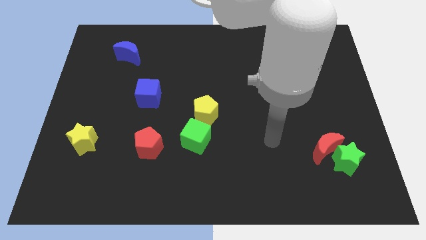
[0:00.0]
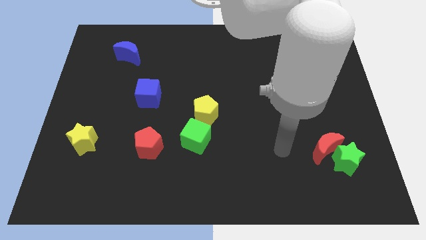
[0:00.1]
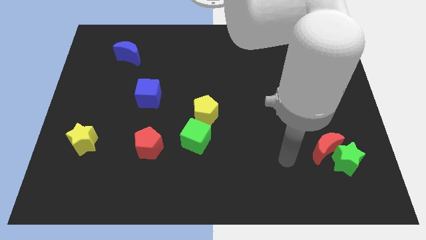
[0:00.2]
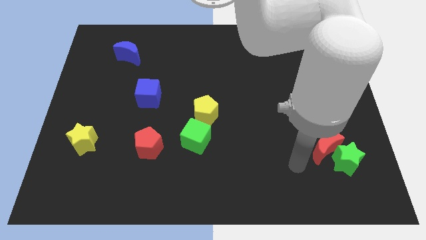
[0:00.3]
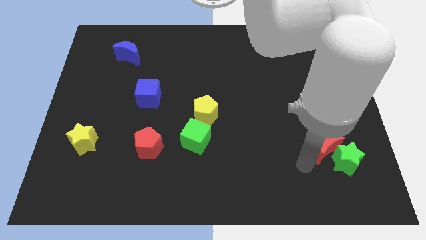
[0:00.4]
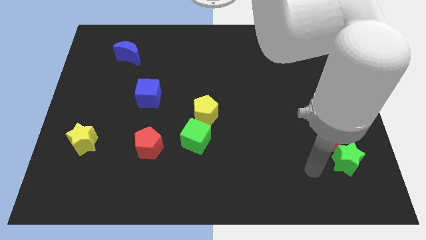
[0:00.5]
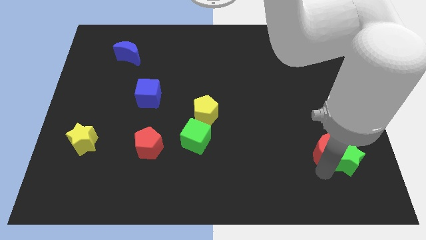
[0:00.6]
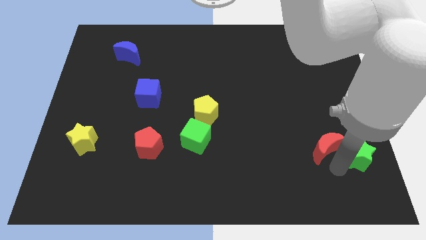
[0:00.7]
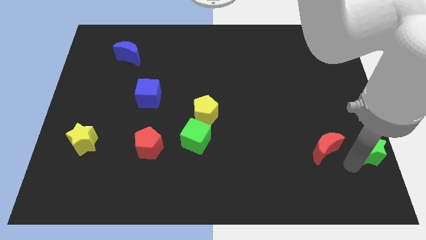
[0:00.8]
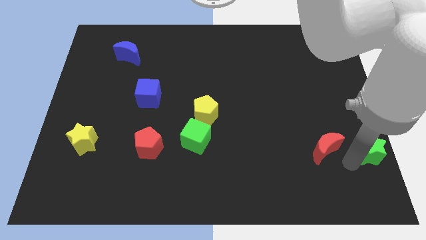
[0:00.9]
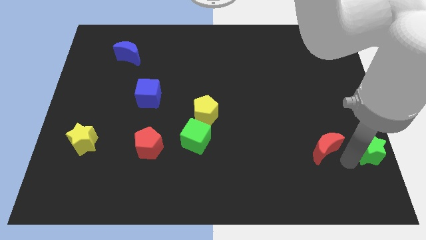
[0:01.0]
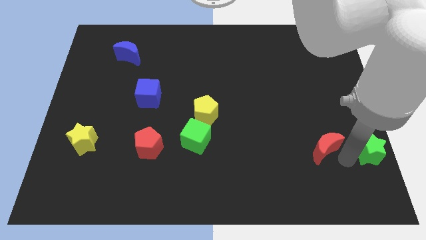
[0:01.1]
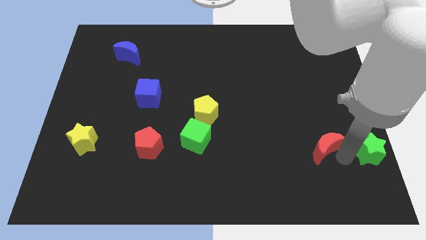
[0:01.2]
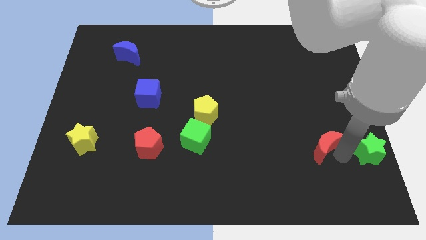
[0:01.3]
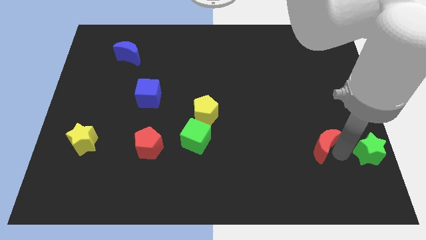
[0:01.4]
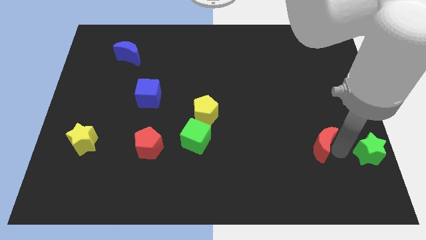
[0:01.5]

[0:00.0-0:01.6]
separate the red moon from the green star

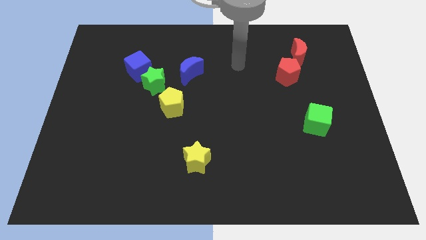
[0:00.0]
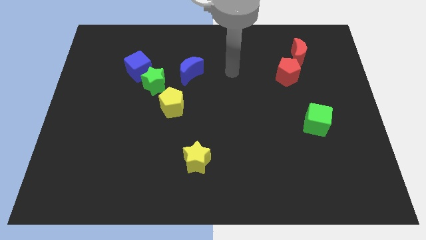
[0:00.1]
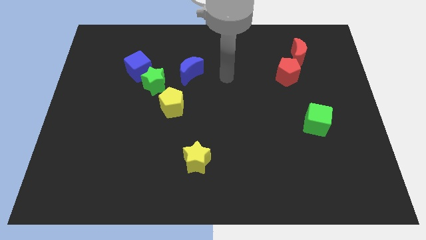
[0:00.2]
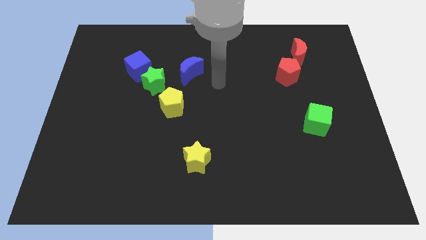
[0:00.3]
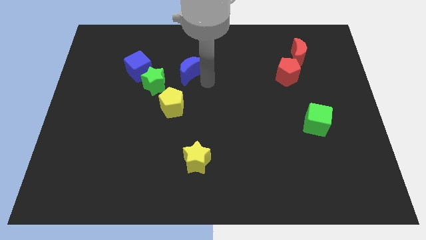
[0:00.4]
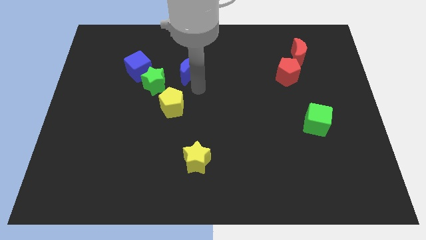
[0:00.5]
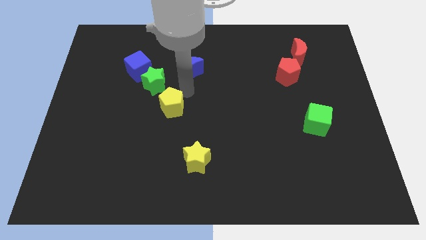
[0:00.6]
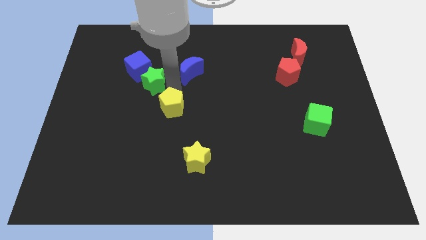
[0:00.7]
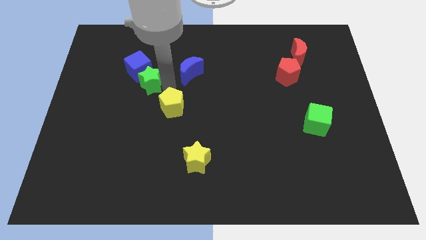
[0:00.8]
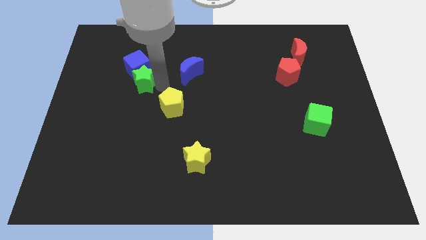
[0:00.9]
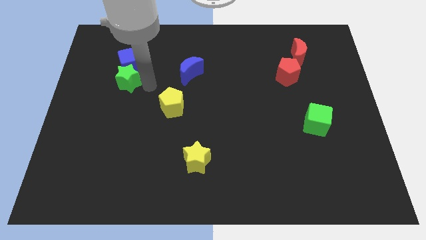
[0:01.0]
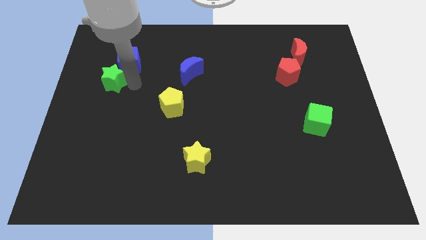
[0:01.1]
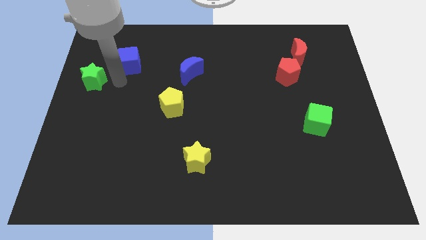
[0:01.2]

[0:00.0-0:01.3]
separate the blue cube from the green star

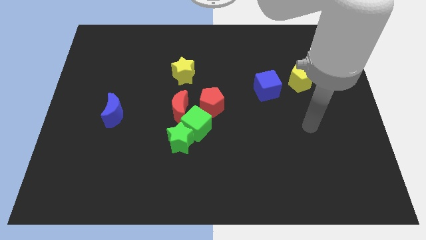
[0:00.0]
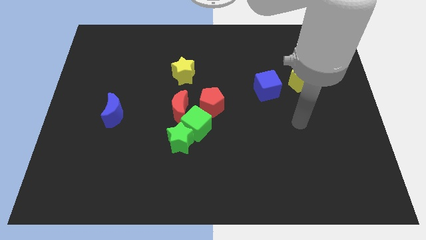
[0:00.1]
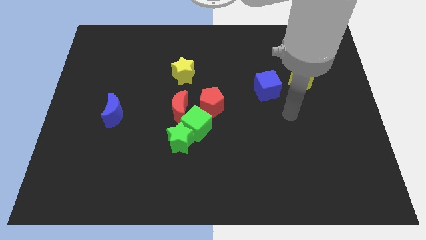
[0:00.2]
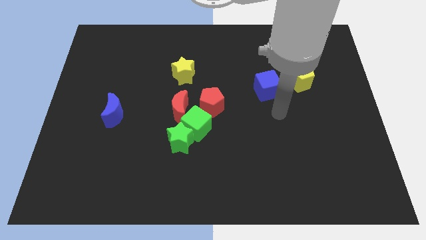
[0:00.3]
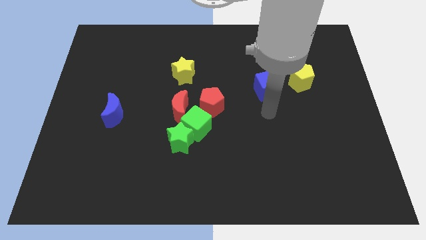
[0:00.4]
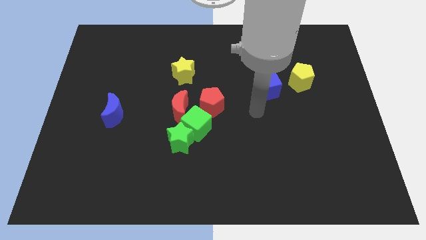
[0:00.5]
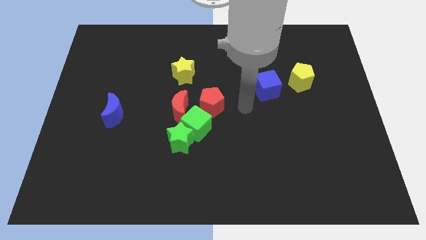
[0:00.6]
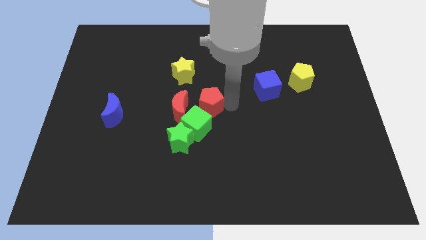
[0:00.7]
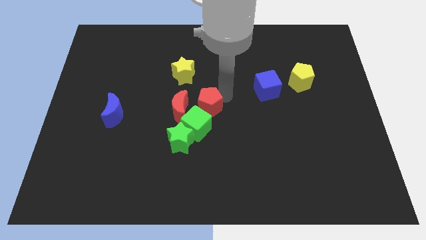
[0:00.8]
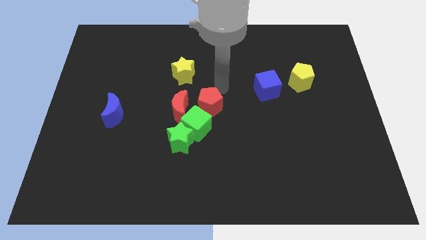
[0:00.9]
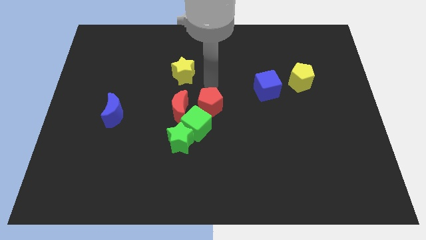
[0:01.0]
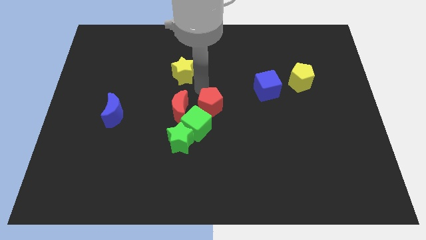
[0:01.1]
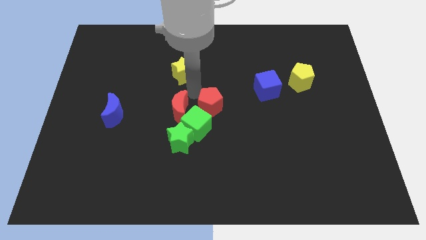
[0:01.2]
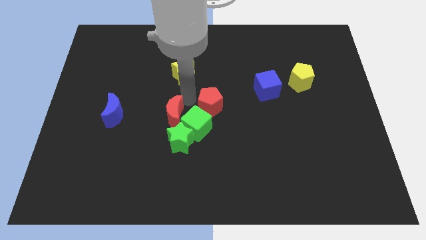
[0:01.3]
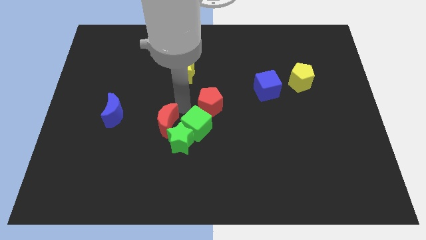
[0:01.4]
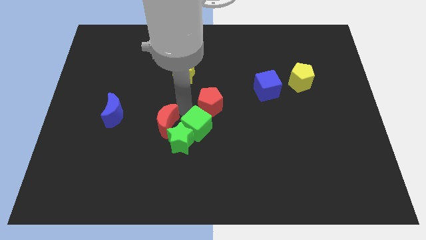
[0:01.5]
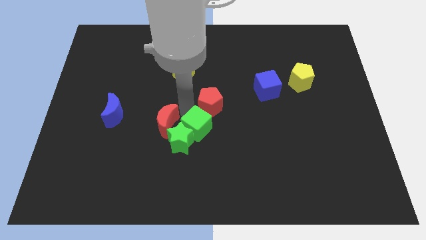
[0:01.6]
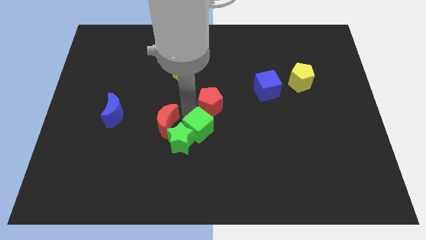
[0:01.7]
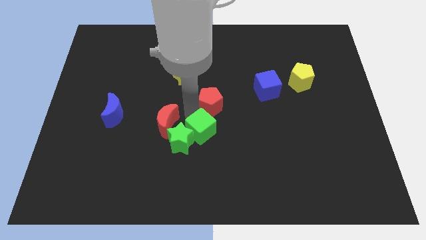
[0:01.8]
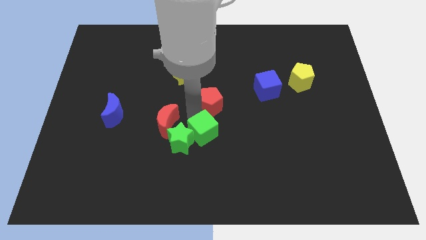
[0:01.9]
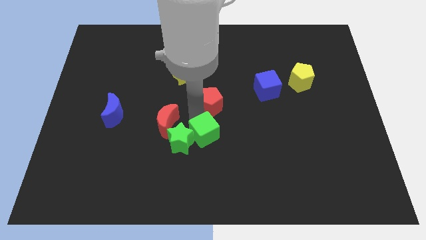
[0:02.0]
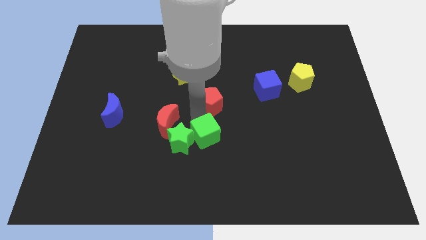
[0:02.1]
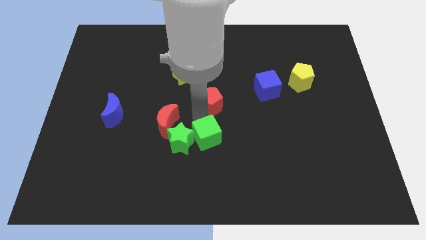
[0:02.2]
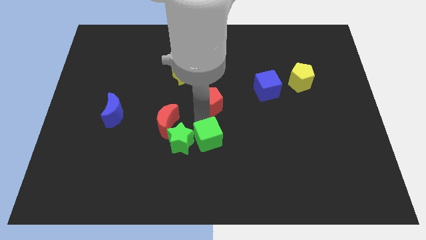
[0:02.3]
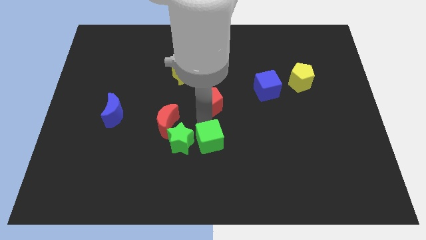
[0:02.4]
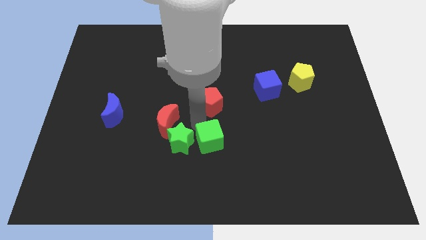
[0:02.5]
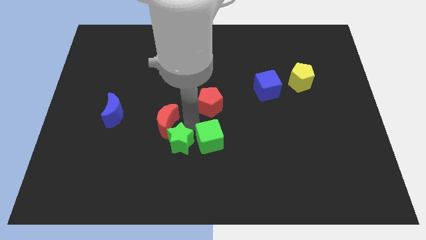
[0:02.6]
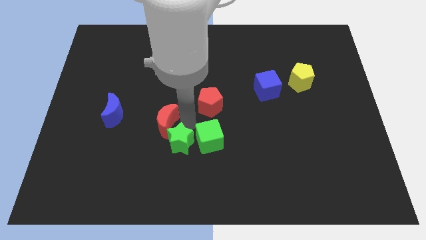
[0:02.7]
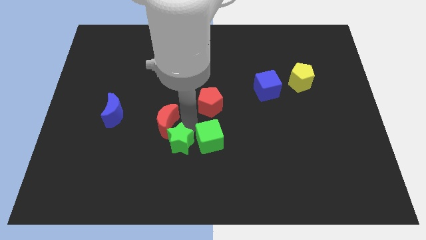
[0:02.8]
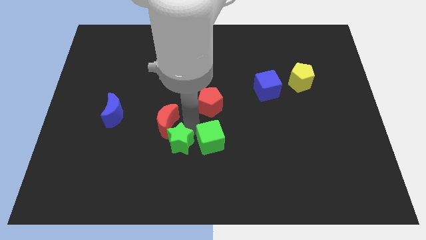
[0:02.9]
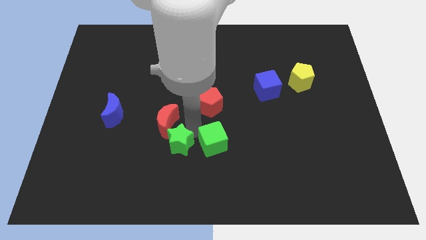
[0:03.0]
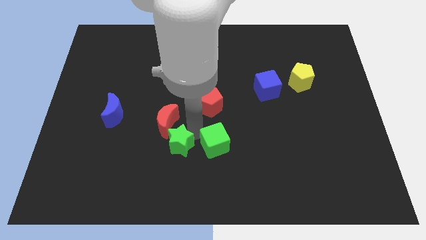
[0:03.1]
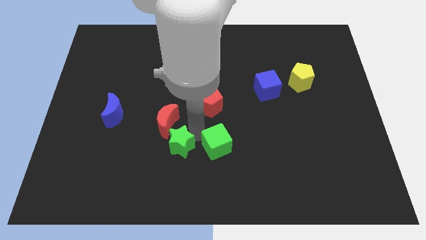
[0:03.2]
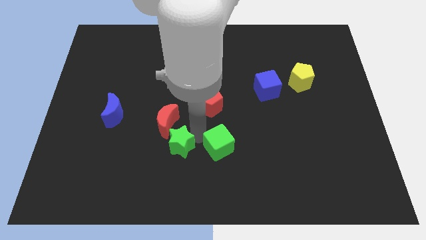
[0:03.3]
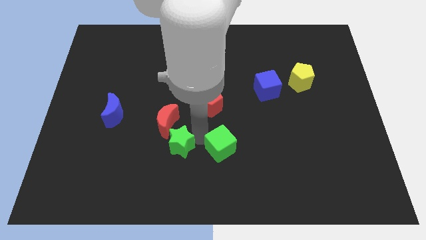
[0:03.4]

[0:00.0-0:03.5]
separate the green cube from the clump

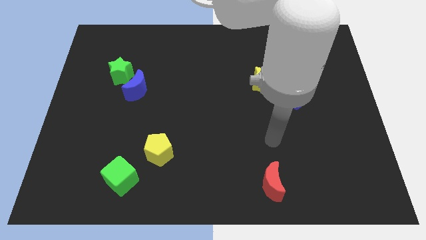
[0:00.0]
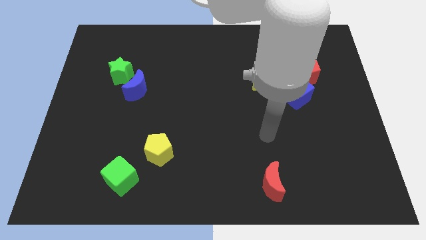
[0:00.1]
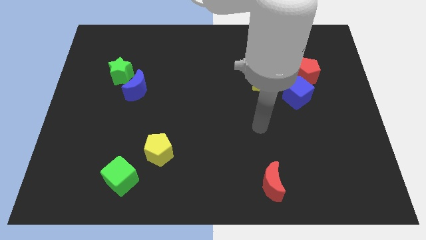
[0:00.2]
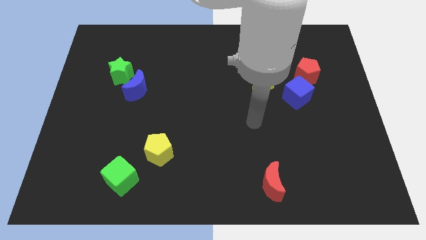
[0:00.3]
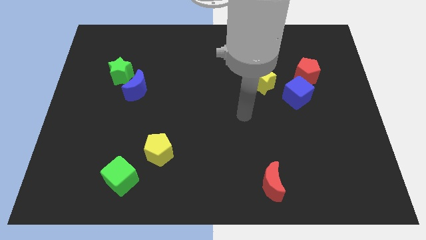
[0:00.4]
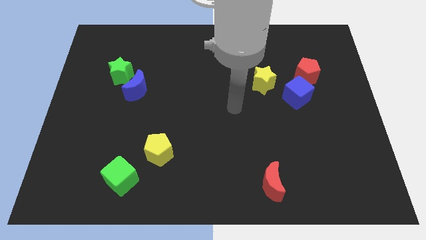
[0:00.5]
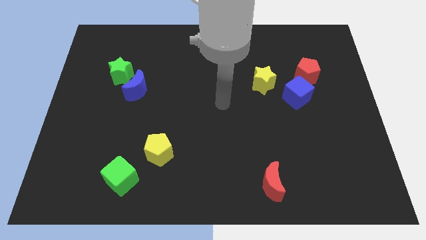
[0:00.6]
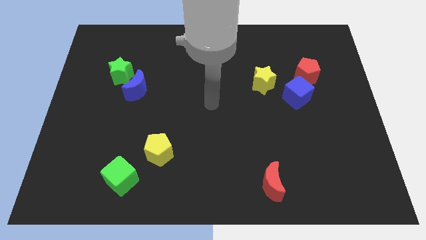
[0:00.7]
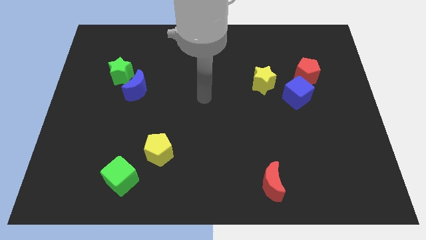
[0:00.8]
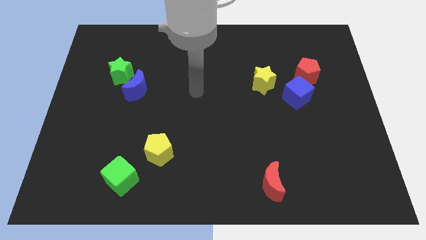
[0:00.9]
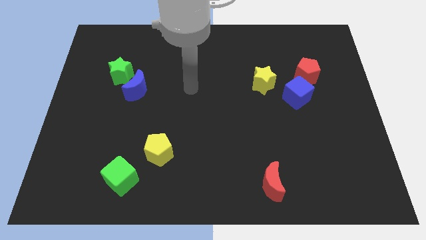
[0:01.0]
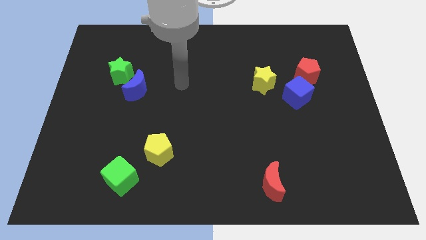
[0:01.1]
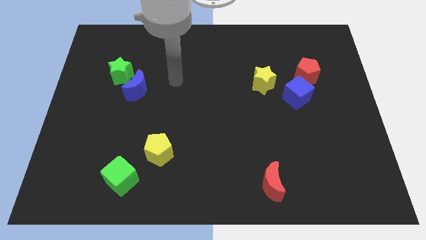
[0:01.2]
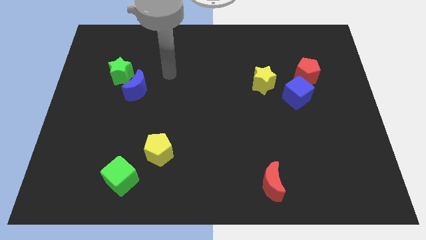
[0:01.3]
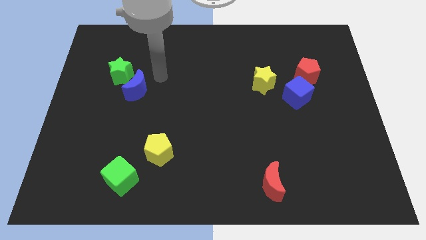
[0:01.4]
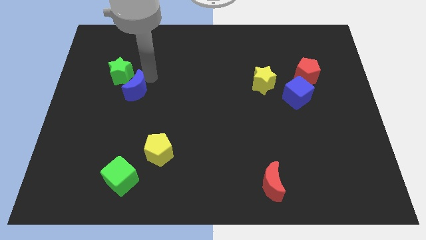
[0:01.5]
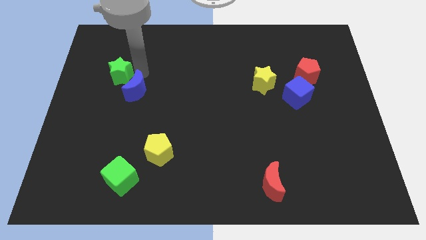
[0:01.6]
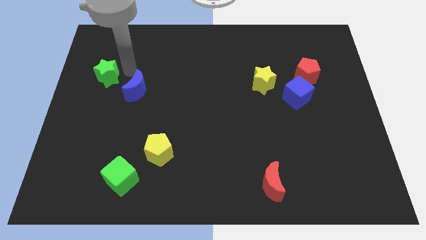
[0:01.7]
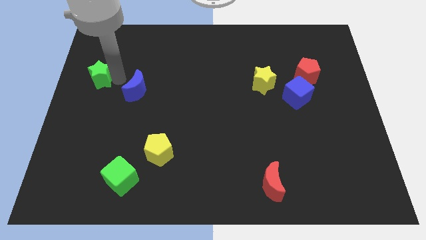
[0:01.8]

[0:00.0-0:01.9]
separate the blue moon from the green star

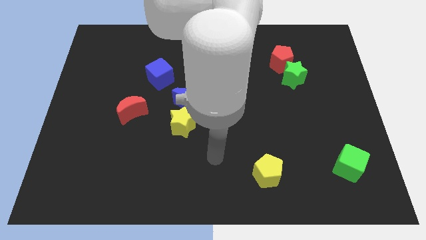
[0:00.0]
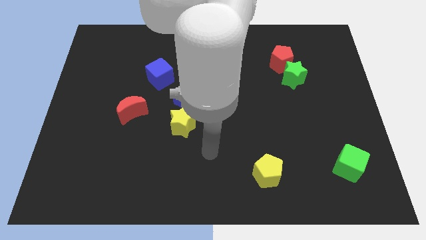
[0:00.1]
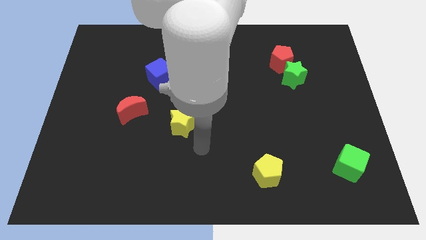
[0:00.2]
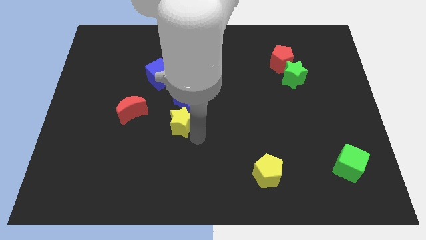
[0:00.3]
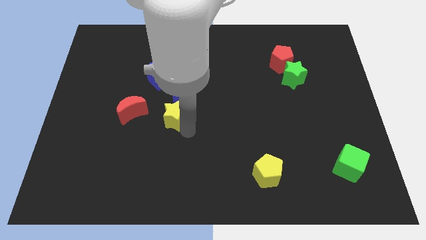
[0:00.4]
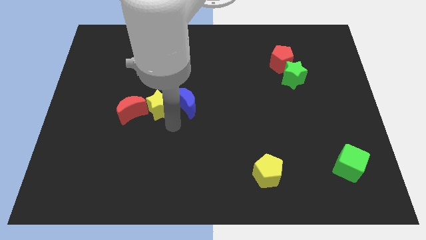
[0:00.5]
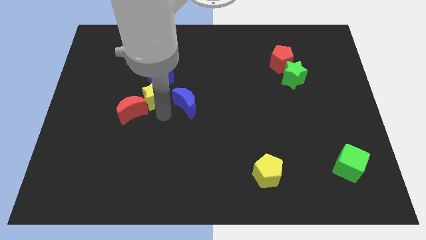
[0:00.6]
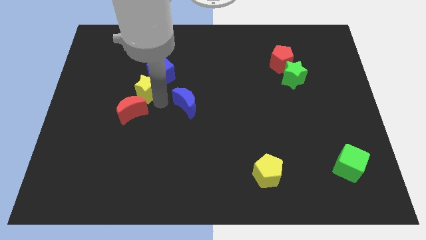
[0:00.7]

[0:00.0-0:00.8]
pull the blue moon apart from the yellow star
